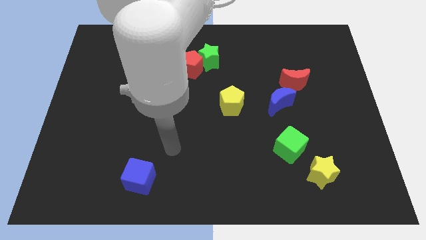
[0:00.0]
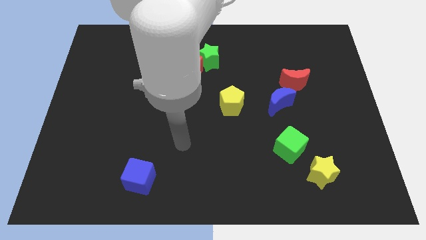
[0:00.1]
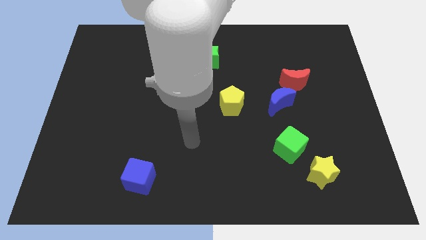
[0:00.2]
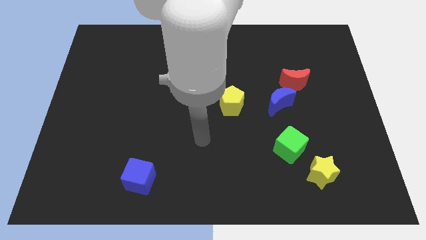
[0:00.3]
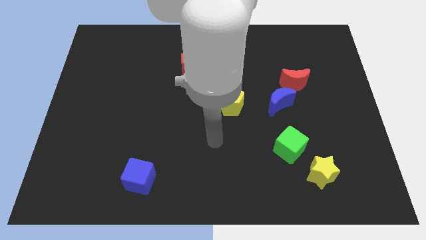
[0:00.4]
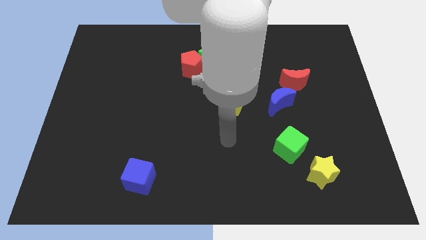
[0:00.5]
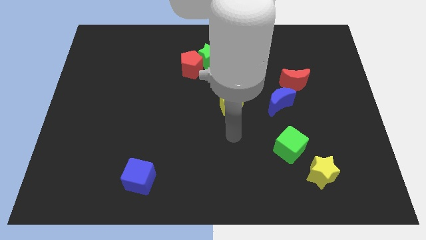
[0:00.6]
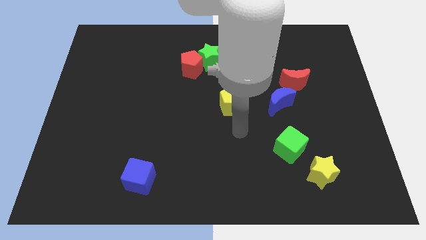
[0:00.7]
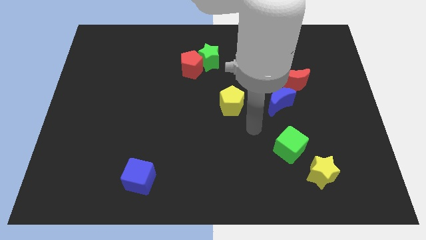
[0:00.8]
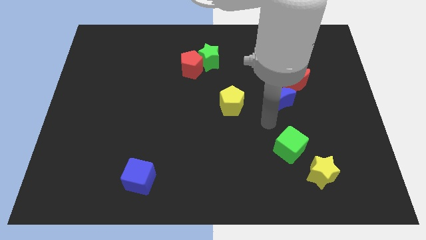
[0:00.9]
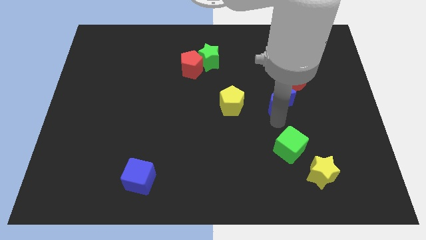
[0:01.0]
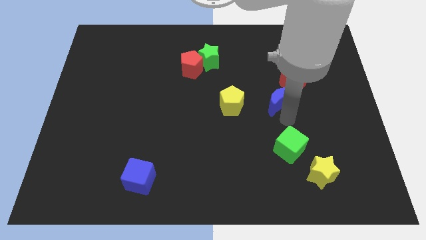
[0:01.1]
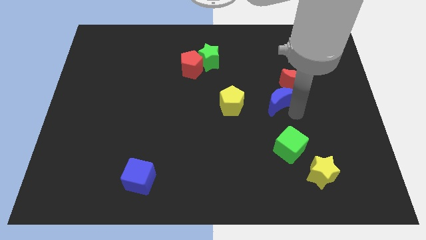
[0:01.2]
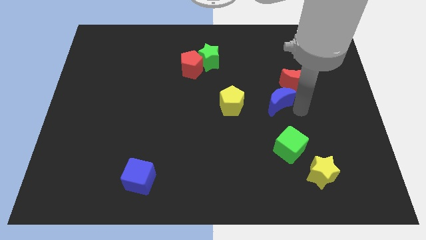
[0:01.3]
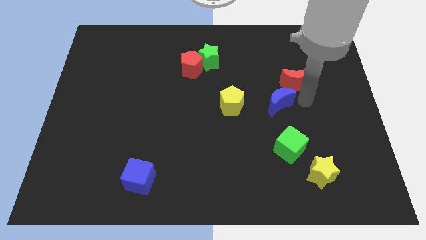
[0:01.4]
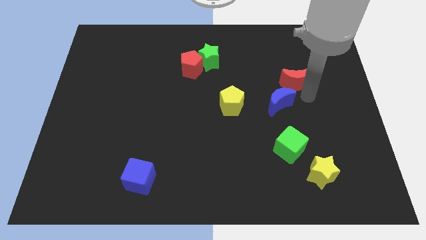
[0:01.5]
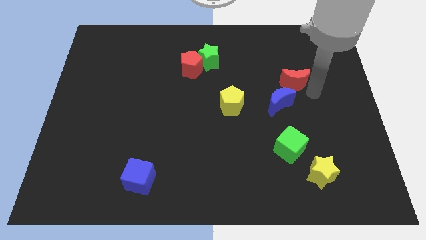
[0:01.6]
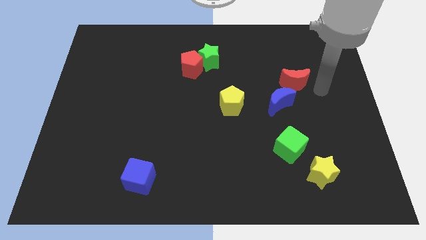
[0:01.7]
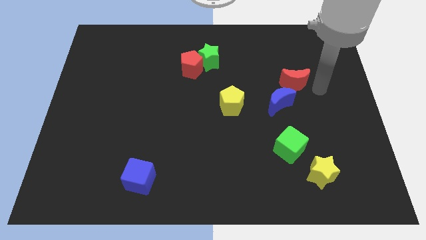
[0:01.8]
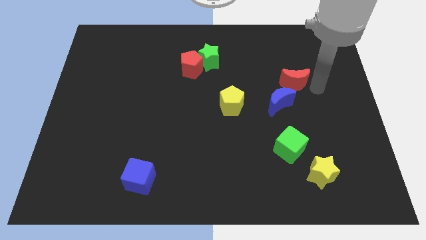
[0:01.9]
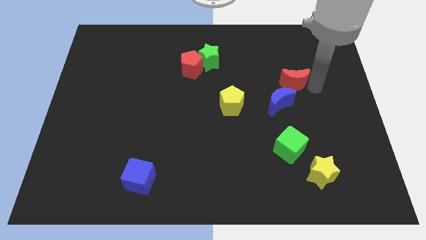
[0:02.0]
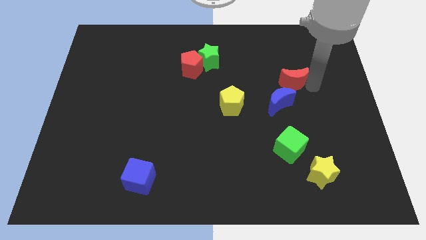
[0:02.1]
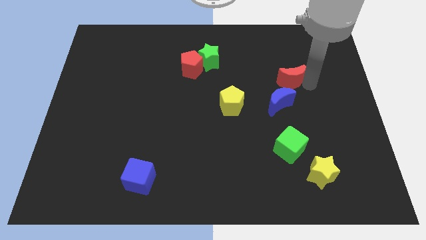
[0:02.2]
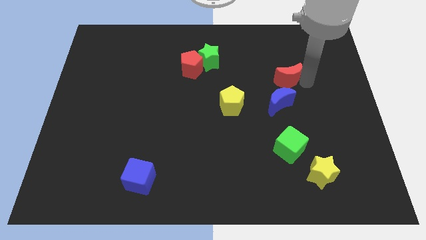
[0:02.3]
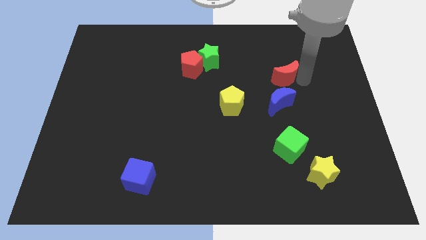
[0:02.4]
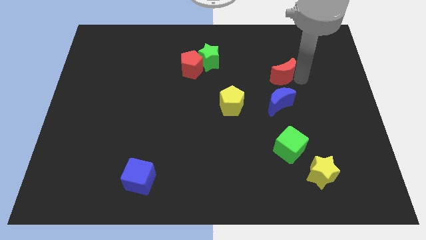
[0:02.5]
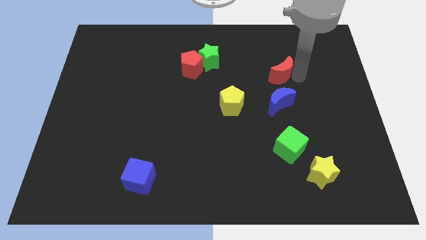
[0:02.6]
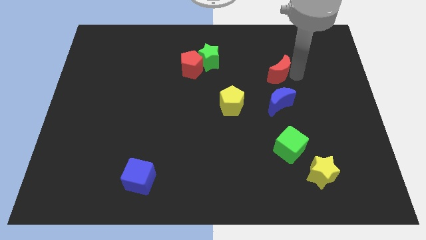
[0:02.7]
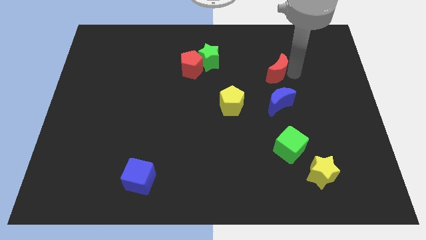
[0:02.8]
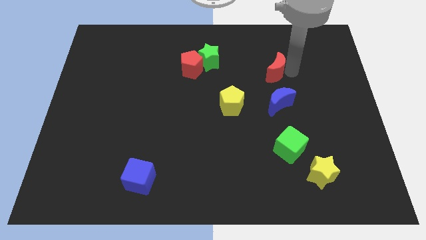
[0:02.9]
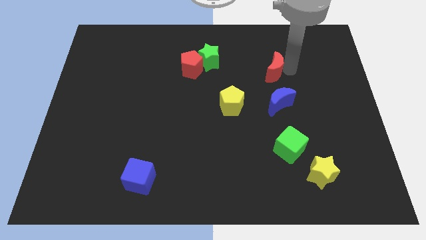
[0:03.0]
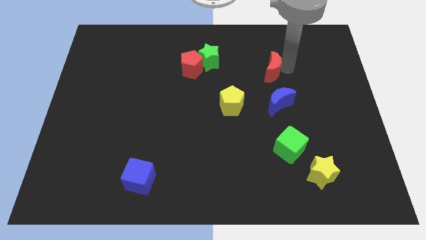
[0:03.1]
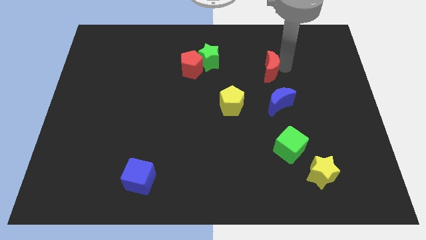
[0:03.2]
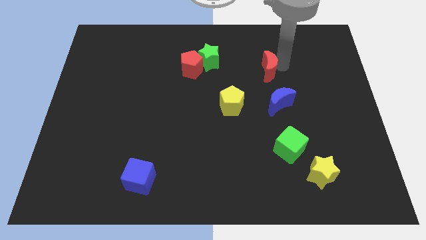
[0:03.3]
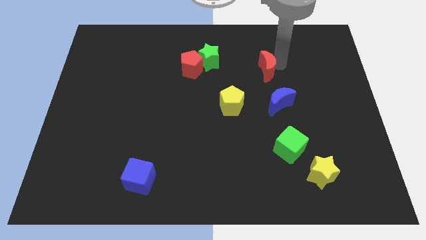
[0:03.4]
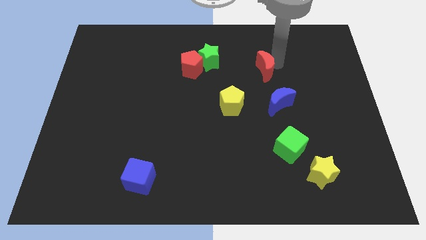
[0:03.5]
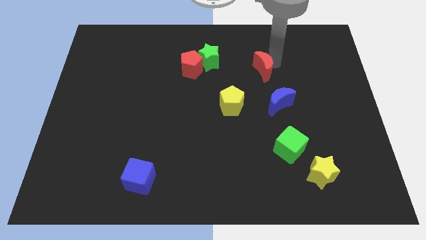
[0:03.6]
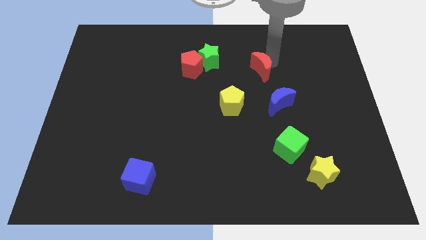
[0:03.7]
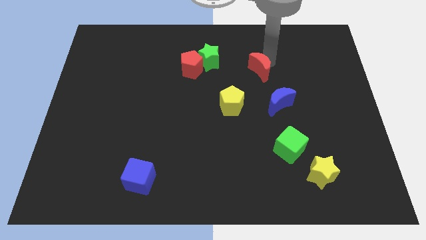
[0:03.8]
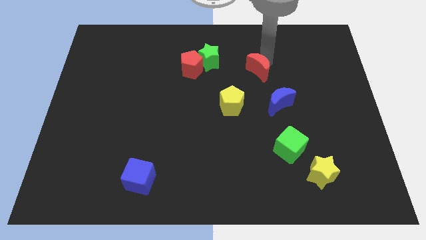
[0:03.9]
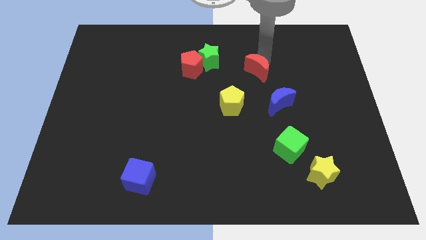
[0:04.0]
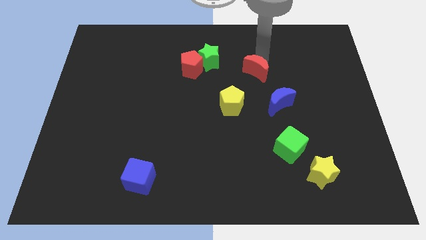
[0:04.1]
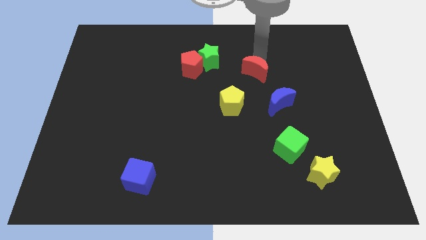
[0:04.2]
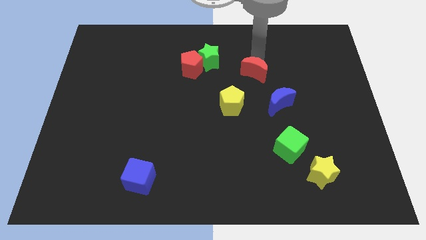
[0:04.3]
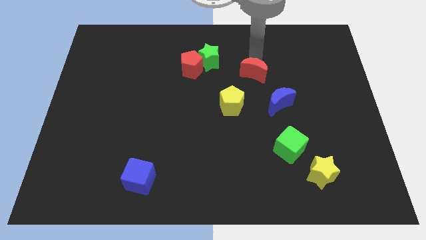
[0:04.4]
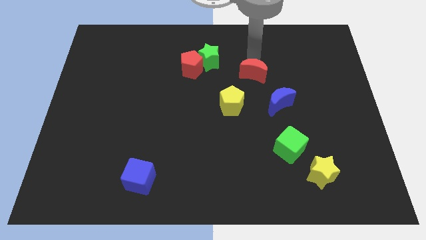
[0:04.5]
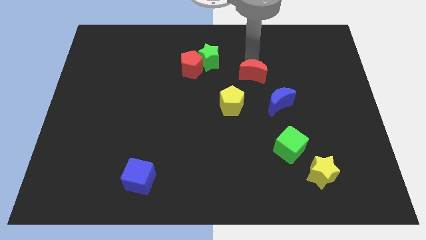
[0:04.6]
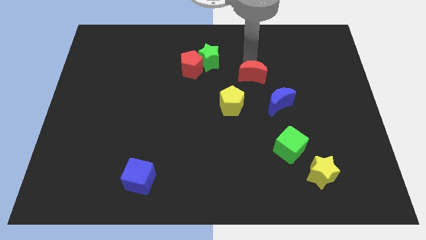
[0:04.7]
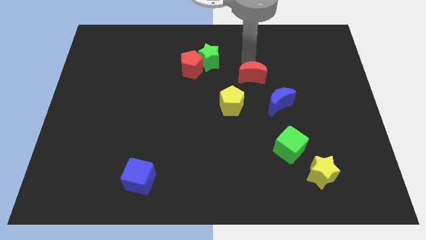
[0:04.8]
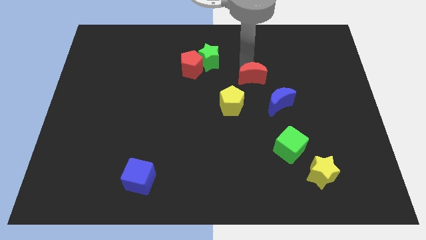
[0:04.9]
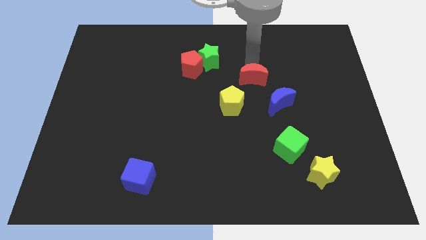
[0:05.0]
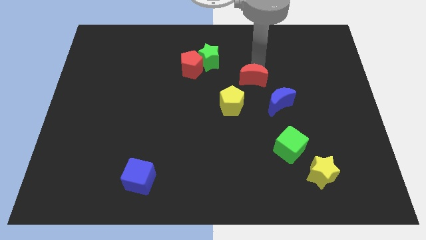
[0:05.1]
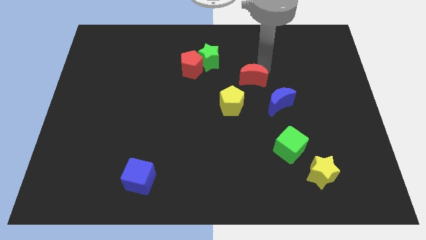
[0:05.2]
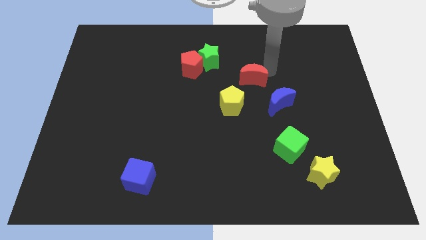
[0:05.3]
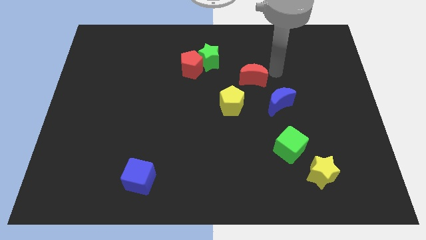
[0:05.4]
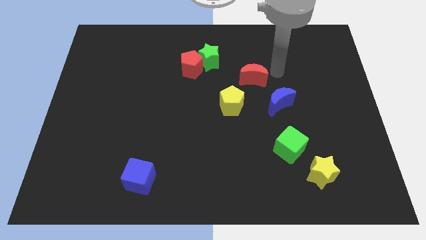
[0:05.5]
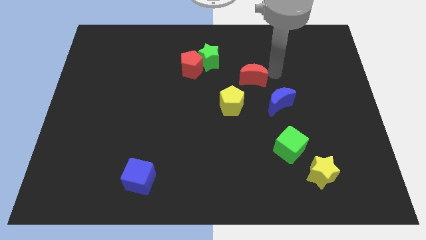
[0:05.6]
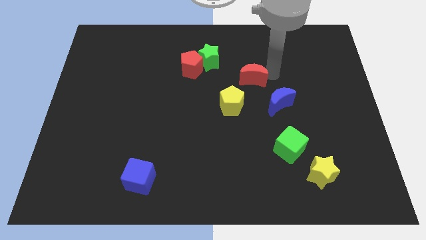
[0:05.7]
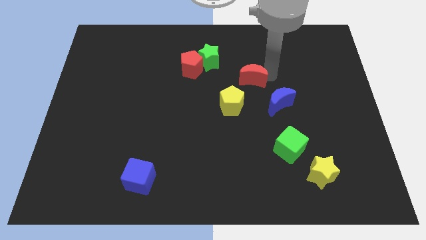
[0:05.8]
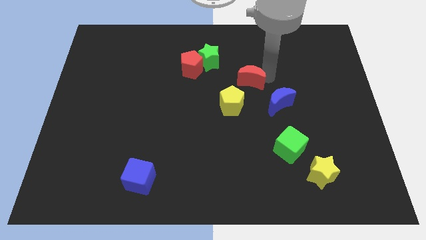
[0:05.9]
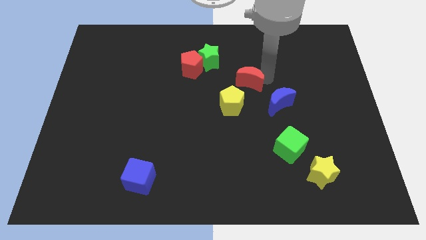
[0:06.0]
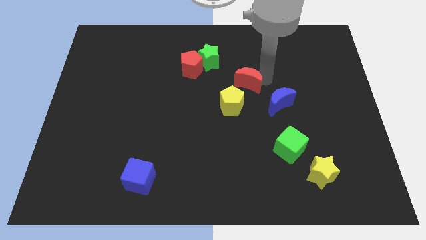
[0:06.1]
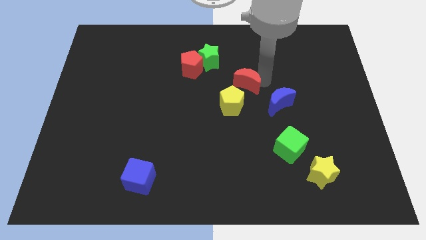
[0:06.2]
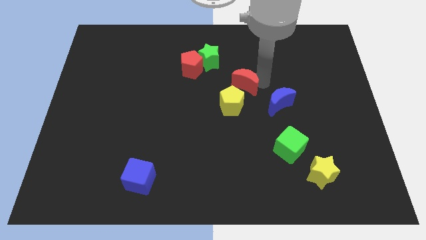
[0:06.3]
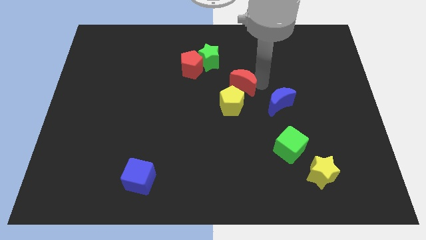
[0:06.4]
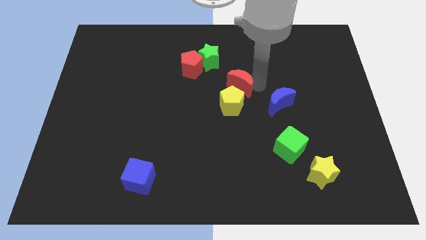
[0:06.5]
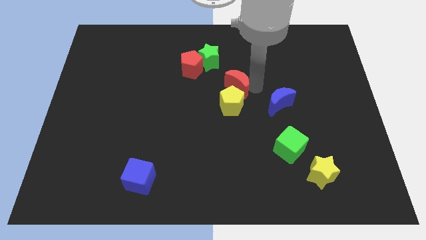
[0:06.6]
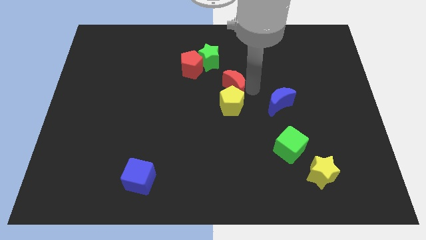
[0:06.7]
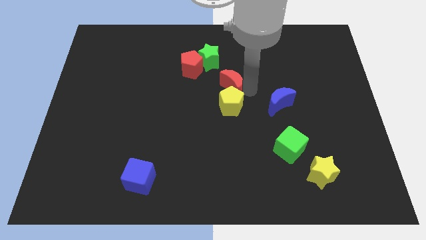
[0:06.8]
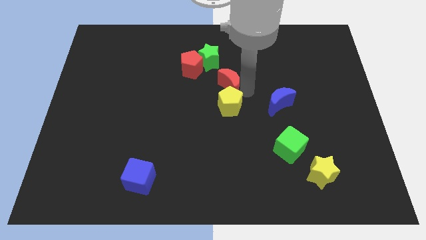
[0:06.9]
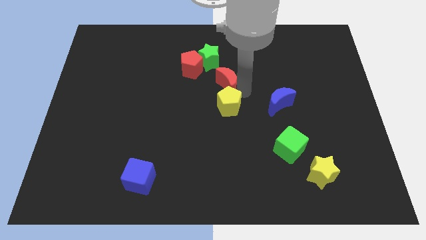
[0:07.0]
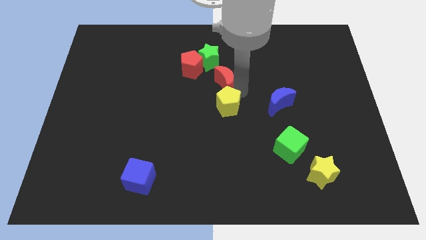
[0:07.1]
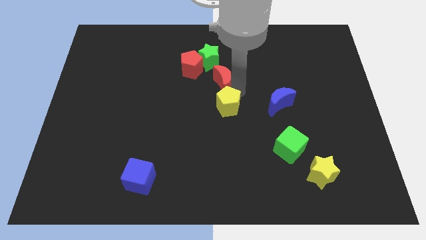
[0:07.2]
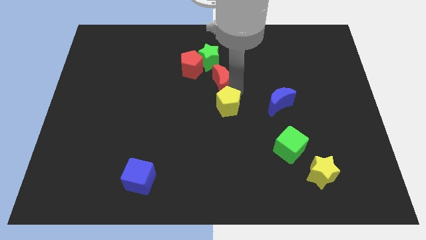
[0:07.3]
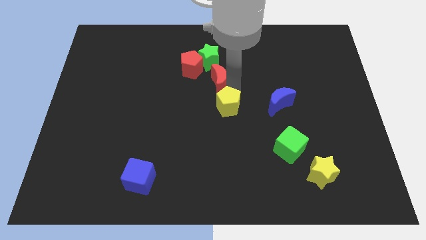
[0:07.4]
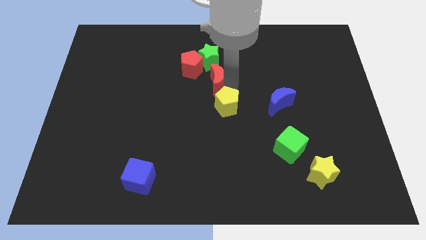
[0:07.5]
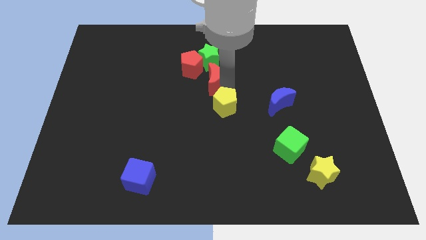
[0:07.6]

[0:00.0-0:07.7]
move the red moon left
